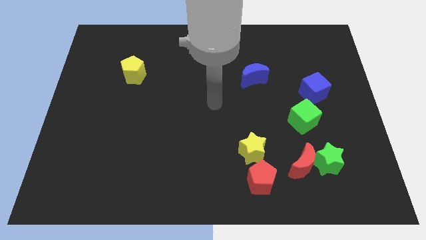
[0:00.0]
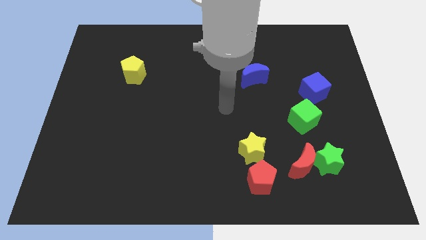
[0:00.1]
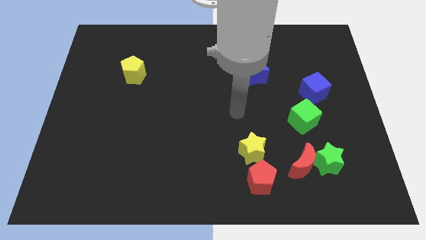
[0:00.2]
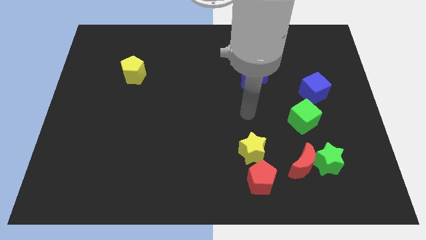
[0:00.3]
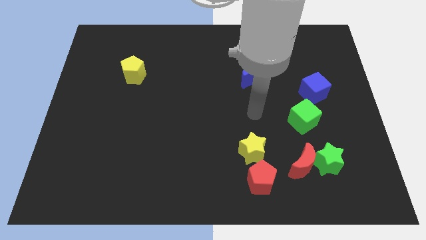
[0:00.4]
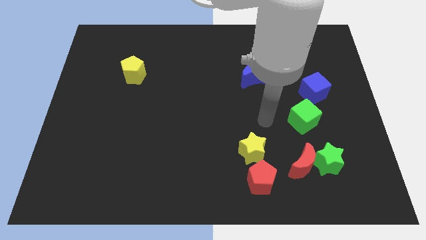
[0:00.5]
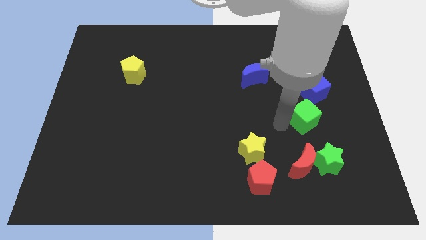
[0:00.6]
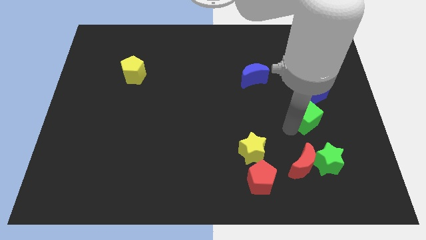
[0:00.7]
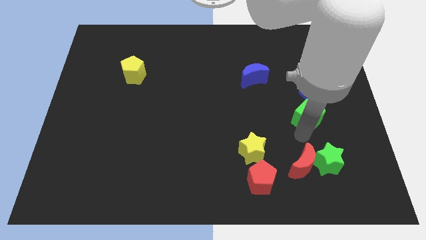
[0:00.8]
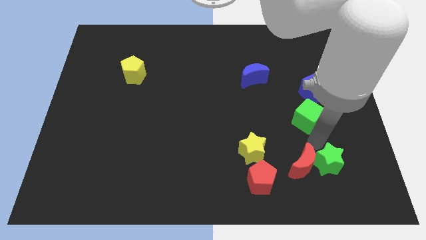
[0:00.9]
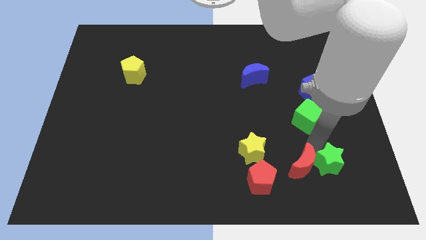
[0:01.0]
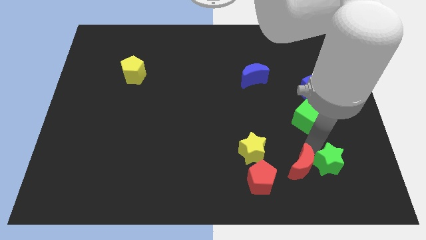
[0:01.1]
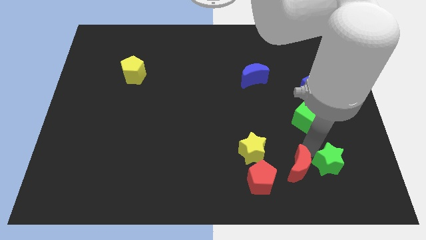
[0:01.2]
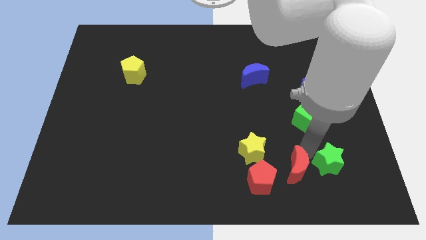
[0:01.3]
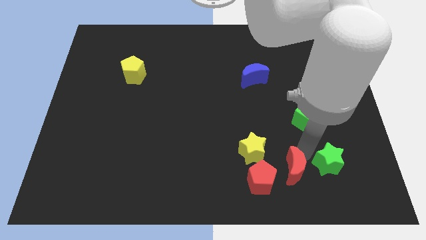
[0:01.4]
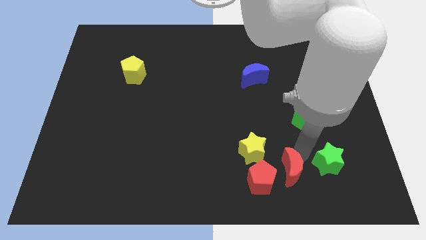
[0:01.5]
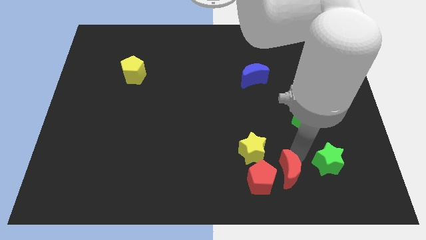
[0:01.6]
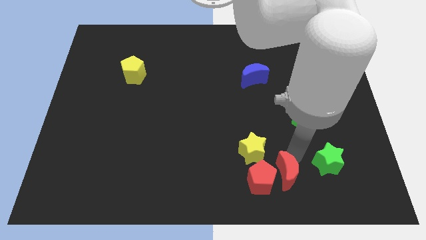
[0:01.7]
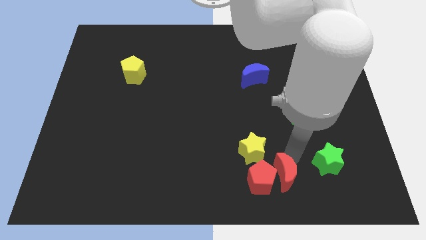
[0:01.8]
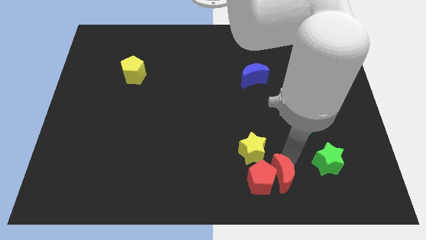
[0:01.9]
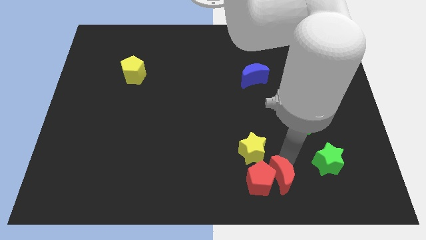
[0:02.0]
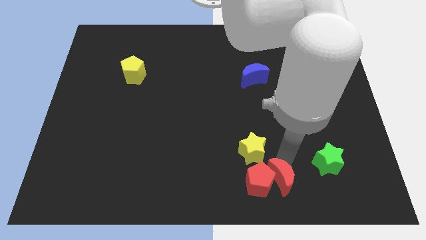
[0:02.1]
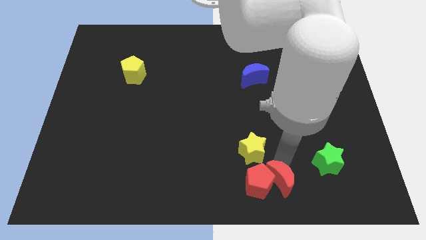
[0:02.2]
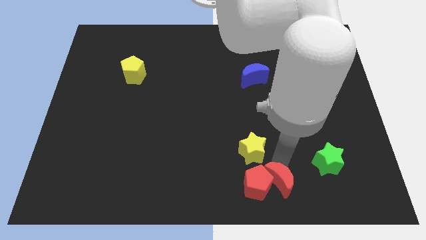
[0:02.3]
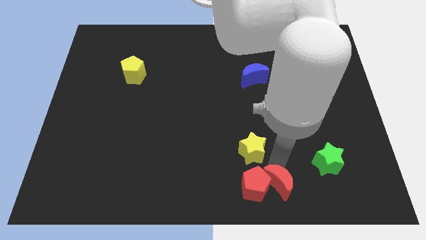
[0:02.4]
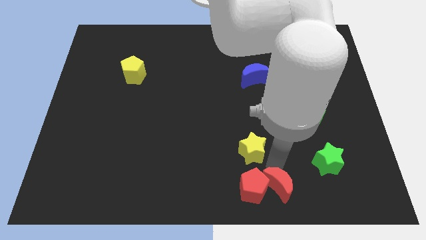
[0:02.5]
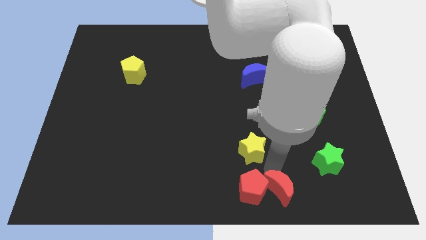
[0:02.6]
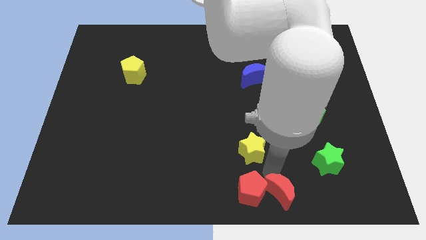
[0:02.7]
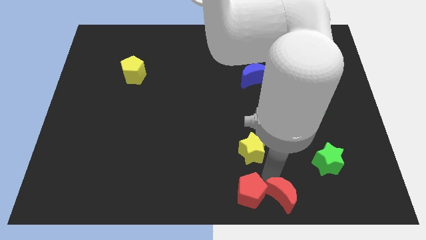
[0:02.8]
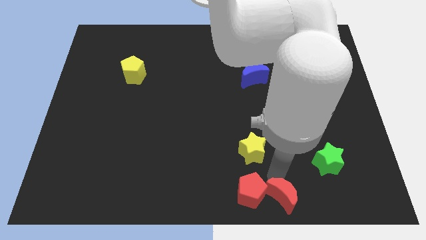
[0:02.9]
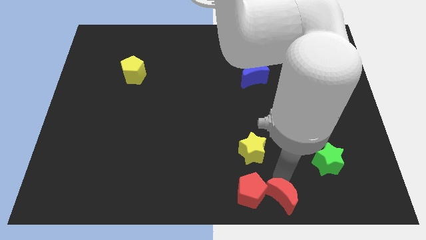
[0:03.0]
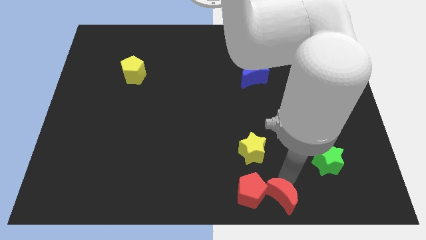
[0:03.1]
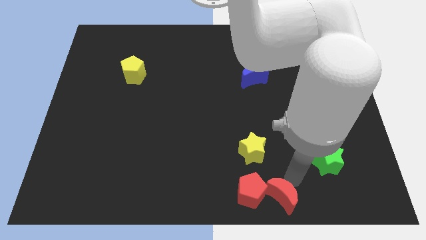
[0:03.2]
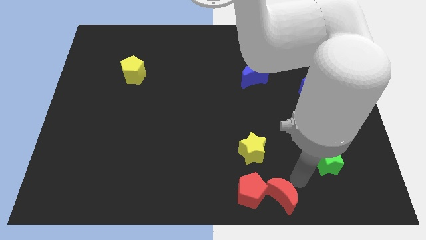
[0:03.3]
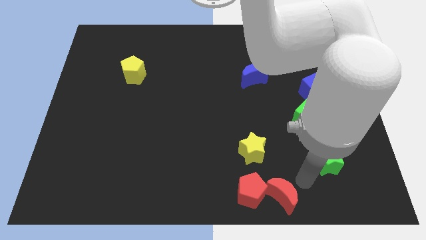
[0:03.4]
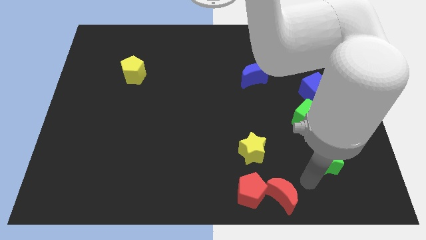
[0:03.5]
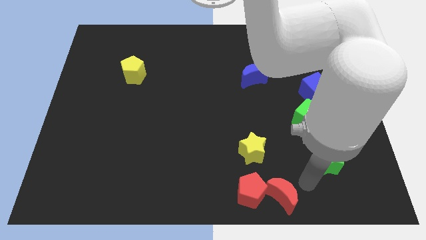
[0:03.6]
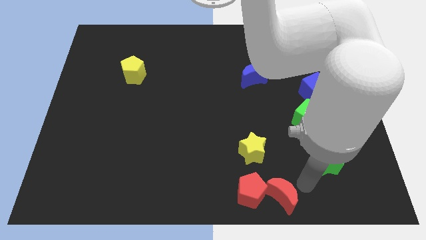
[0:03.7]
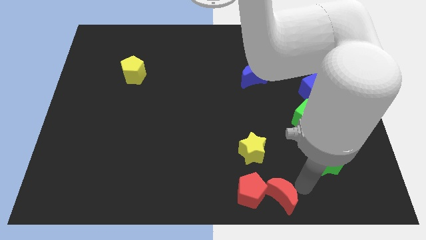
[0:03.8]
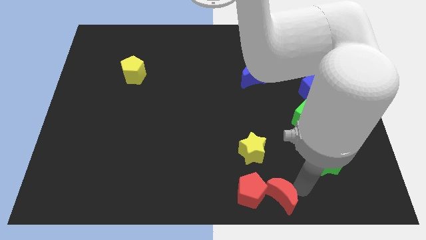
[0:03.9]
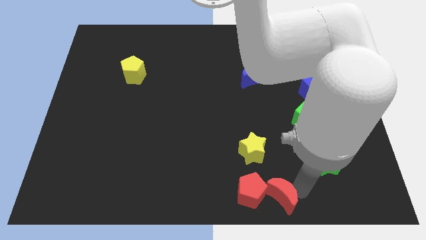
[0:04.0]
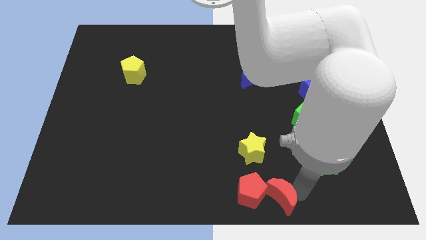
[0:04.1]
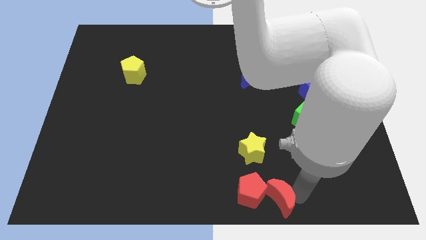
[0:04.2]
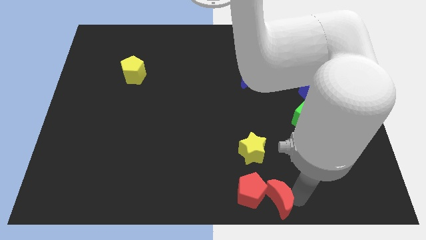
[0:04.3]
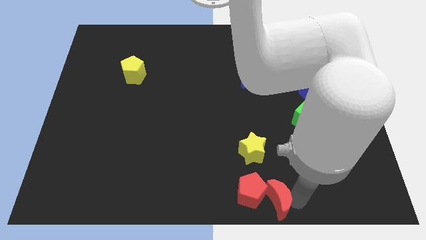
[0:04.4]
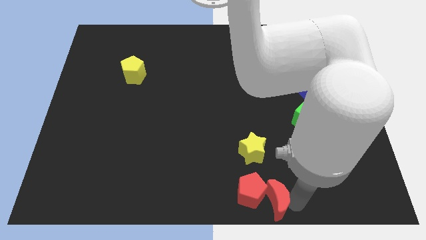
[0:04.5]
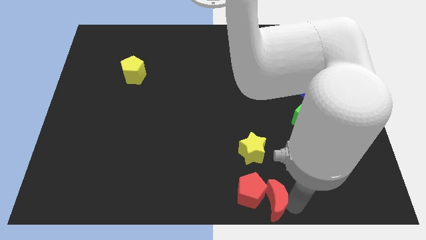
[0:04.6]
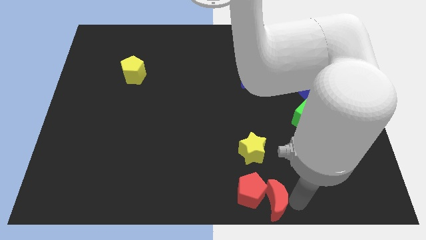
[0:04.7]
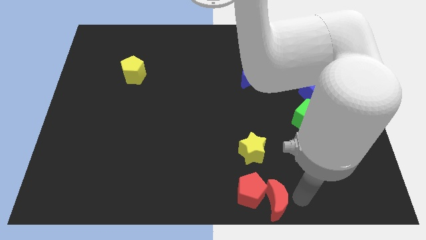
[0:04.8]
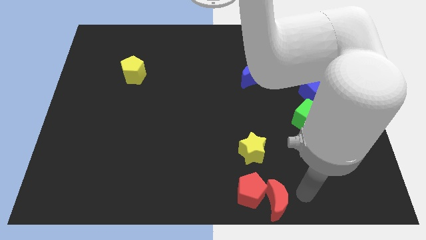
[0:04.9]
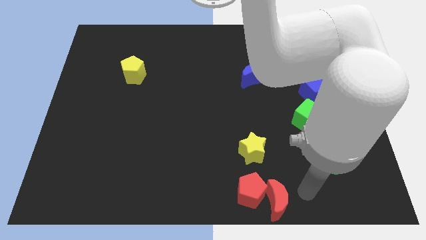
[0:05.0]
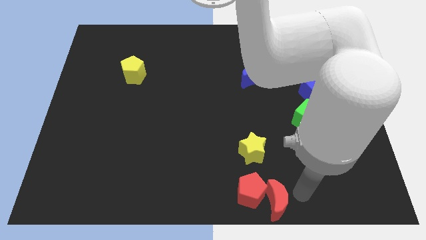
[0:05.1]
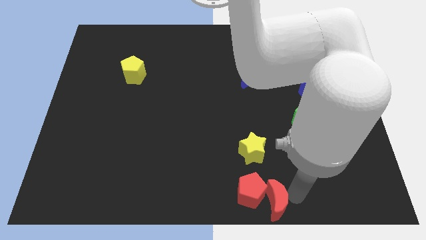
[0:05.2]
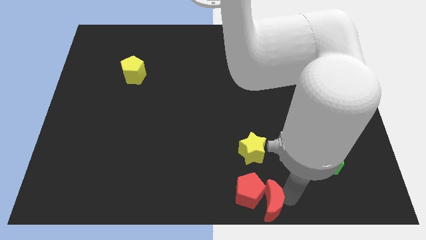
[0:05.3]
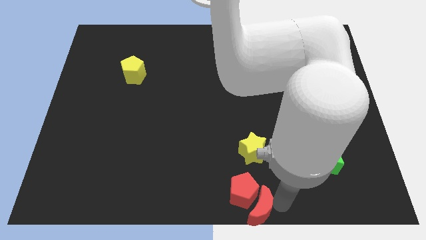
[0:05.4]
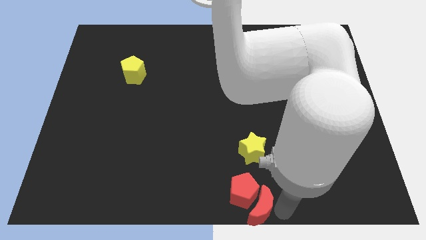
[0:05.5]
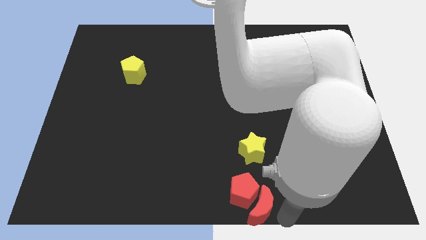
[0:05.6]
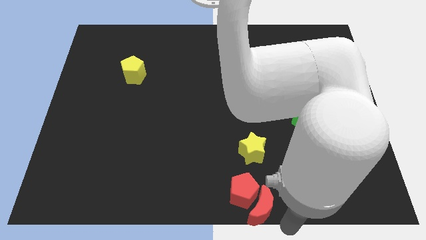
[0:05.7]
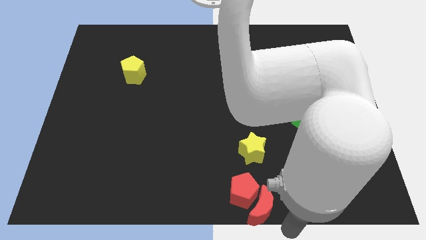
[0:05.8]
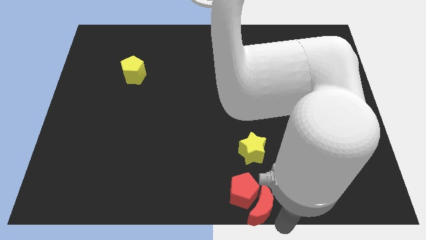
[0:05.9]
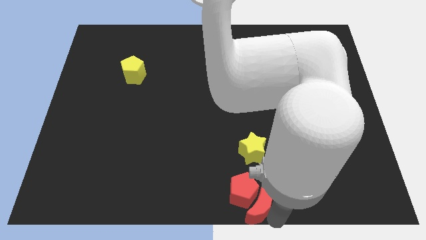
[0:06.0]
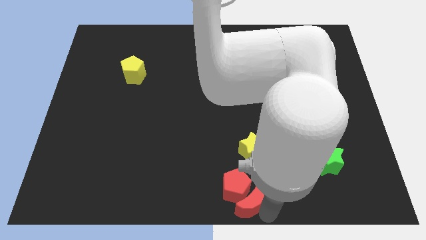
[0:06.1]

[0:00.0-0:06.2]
move the red moon a little left

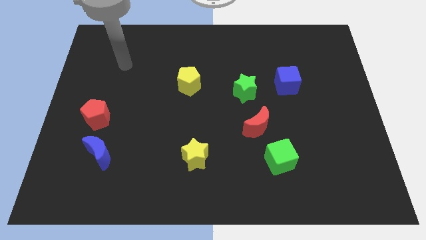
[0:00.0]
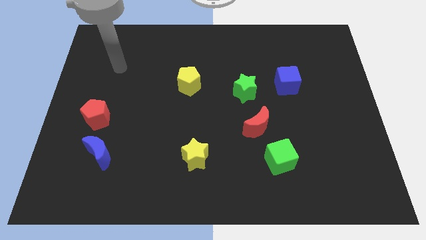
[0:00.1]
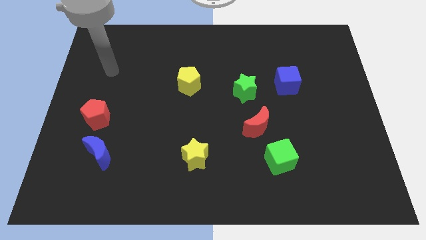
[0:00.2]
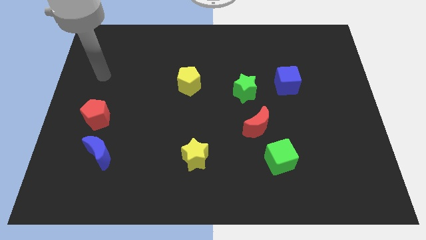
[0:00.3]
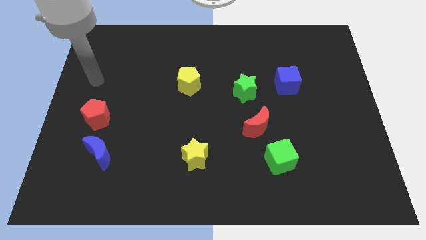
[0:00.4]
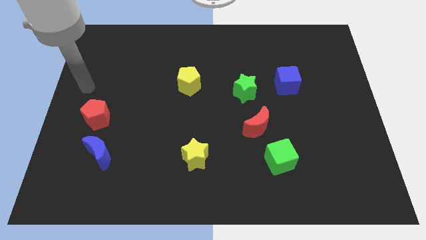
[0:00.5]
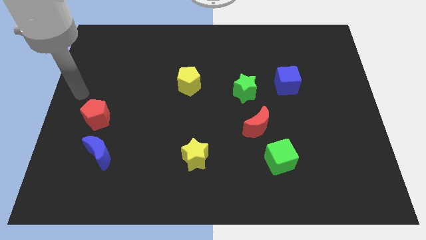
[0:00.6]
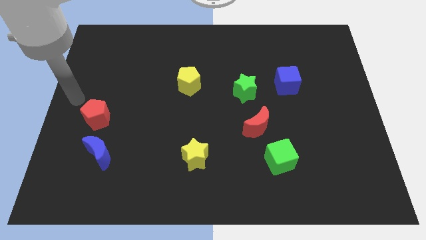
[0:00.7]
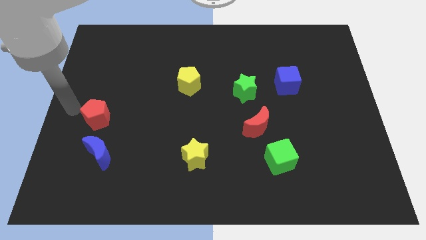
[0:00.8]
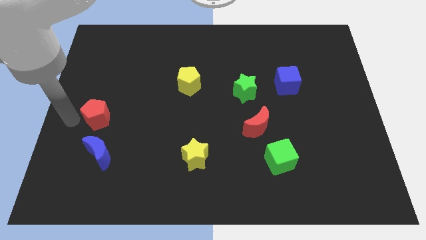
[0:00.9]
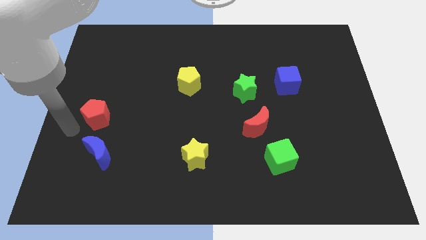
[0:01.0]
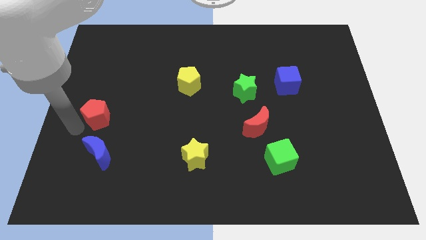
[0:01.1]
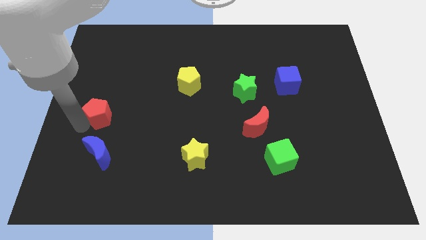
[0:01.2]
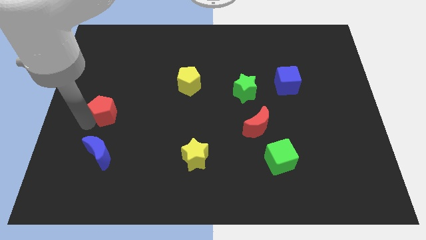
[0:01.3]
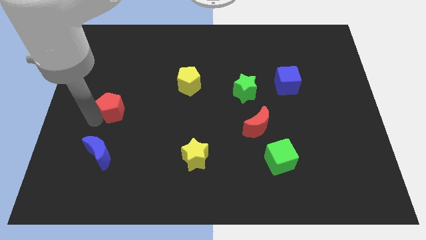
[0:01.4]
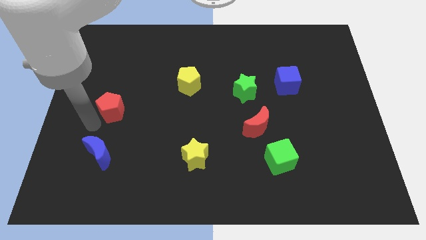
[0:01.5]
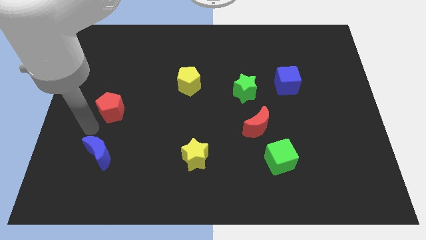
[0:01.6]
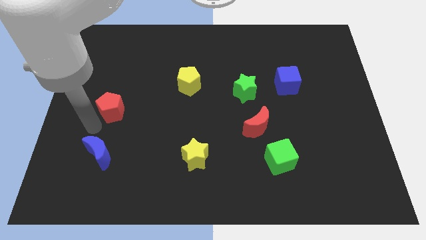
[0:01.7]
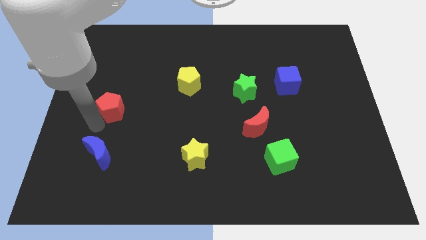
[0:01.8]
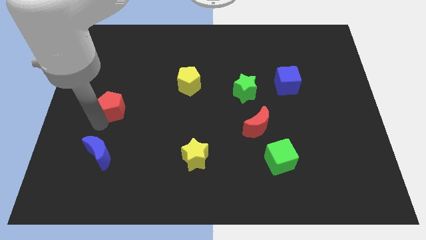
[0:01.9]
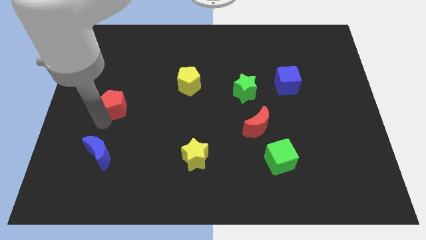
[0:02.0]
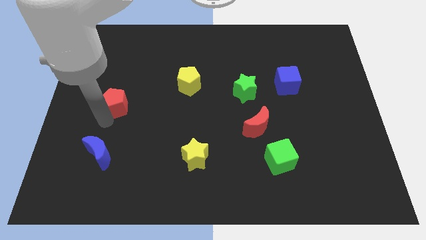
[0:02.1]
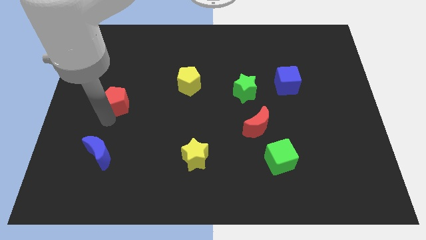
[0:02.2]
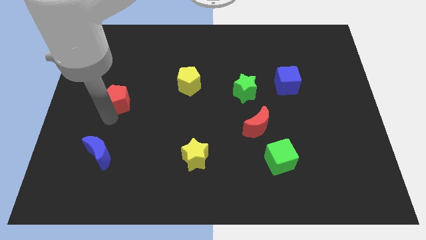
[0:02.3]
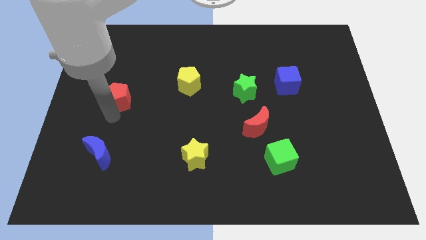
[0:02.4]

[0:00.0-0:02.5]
slide the red pentagon a bit up and then to the right
